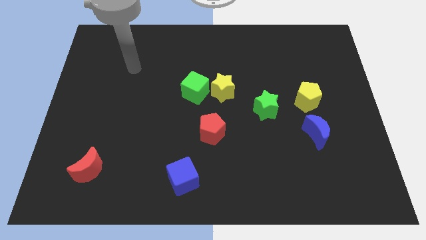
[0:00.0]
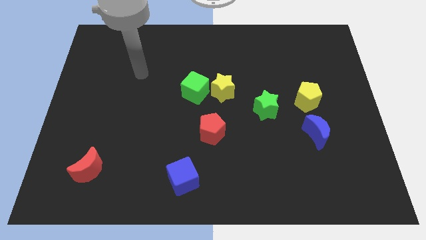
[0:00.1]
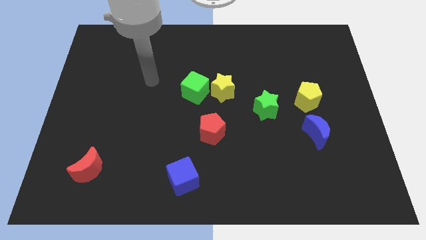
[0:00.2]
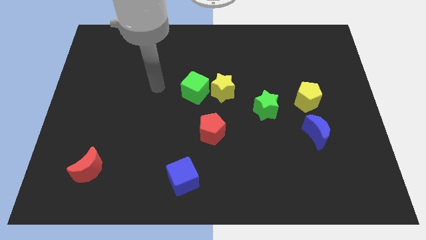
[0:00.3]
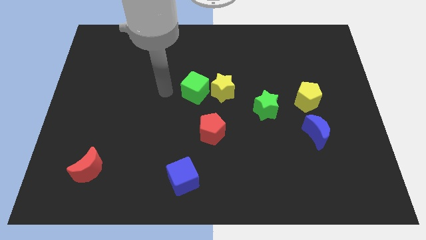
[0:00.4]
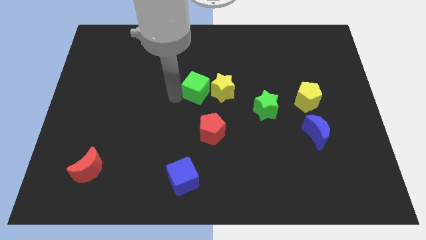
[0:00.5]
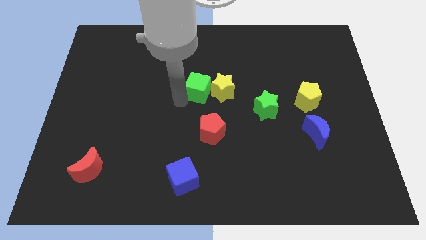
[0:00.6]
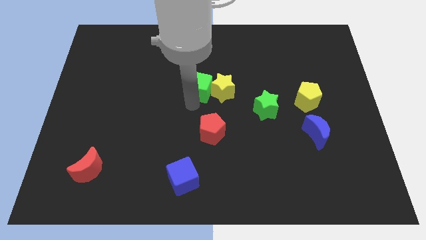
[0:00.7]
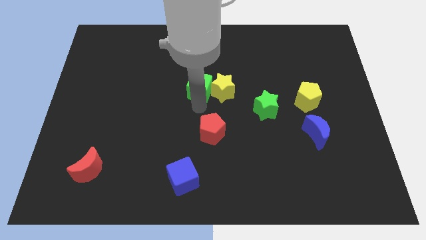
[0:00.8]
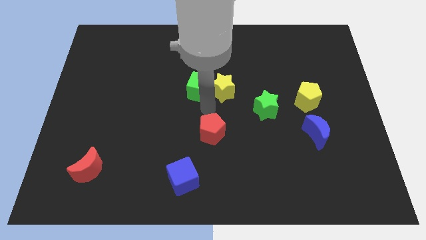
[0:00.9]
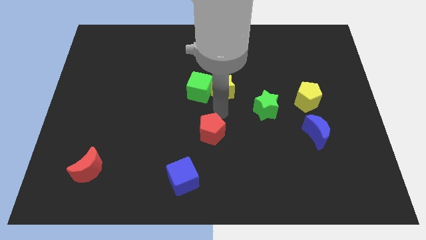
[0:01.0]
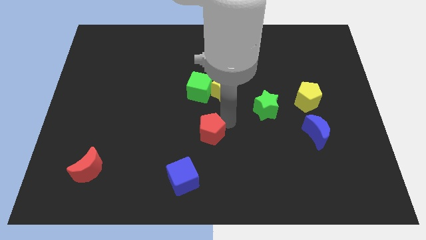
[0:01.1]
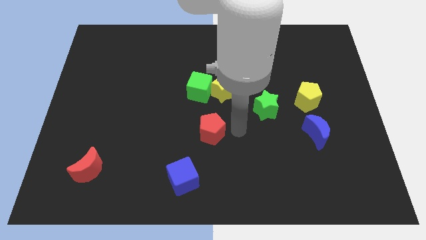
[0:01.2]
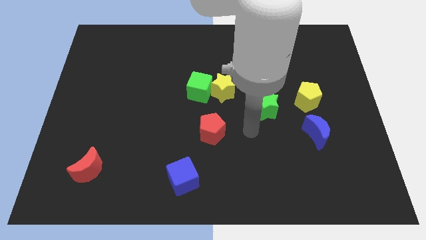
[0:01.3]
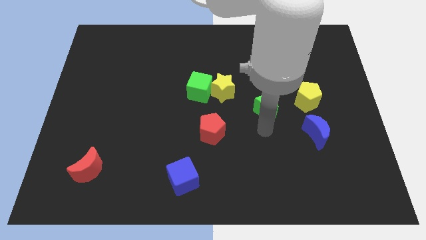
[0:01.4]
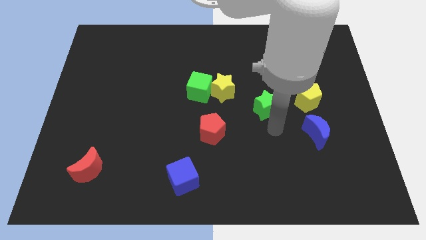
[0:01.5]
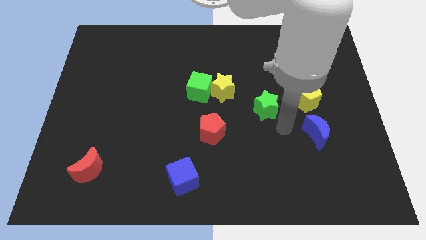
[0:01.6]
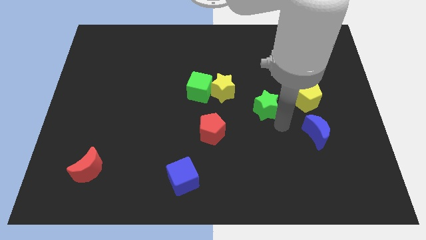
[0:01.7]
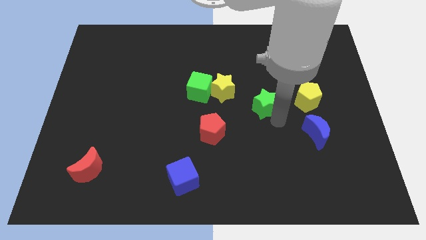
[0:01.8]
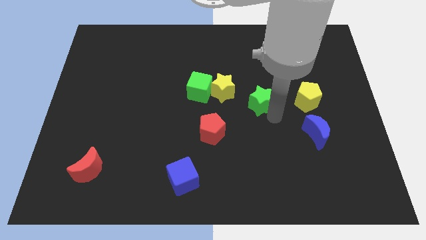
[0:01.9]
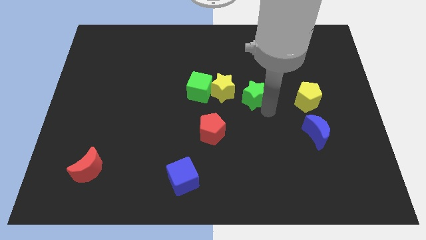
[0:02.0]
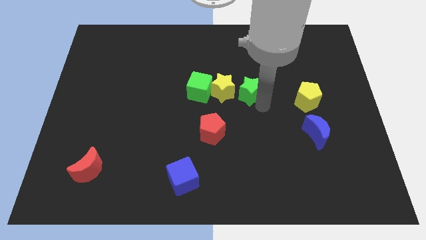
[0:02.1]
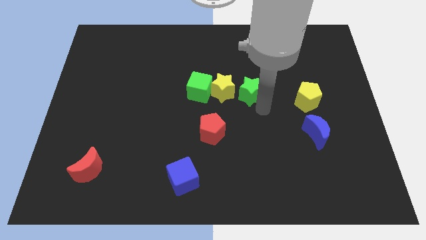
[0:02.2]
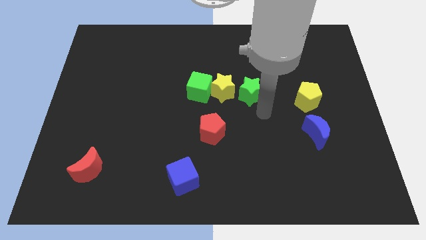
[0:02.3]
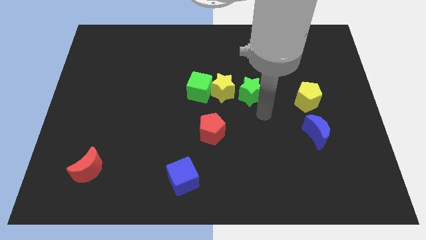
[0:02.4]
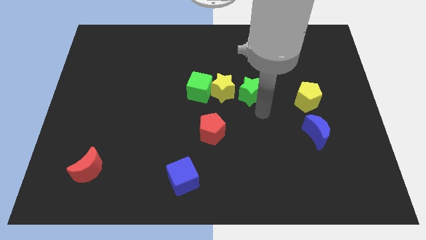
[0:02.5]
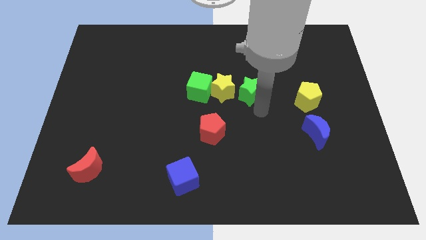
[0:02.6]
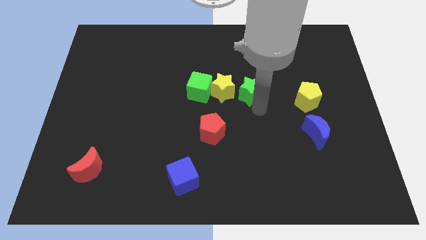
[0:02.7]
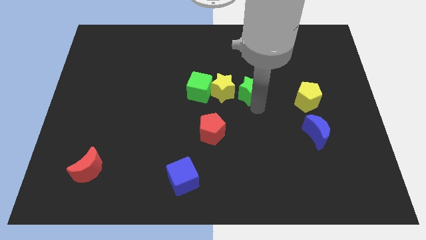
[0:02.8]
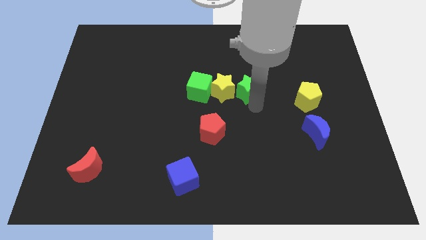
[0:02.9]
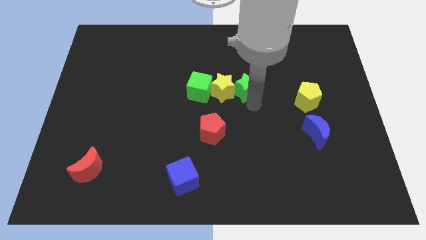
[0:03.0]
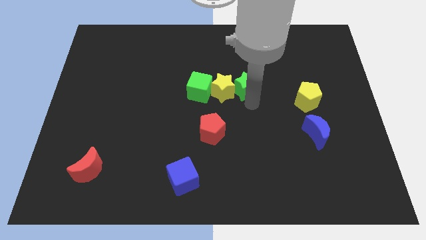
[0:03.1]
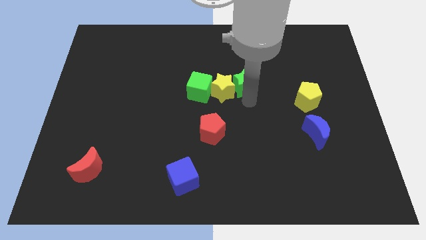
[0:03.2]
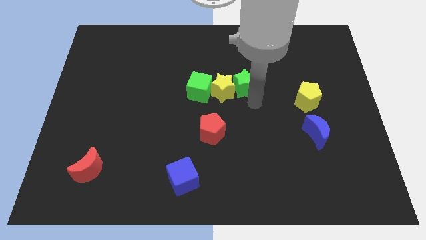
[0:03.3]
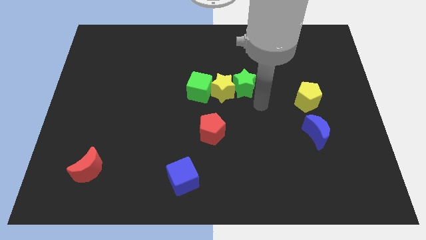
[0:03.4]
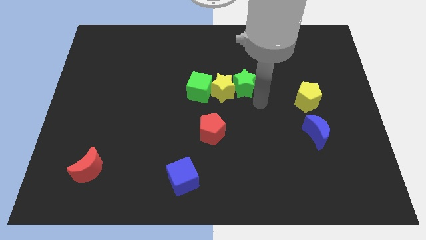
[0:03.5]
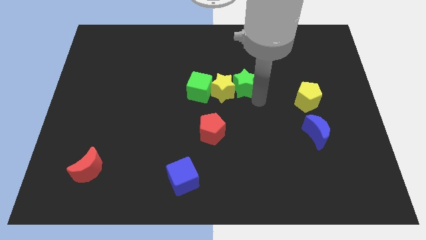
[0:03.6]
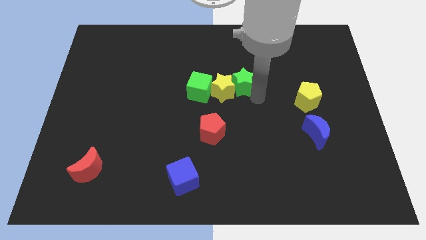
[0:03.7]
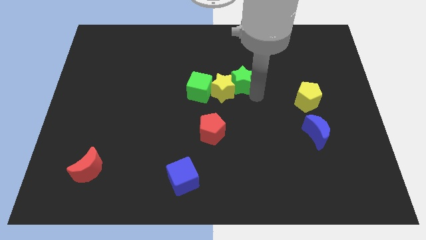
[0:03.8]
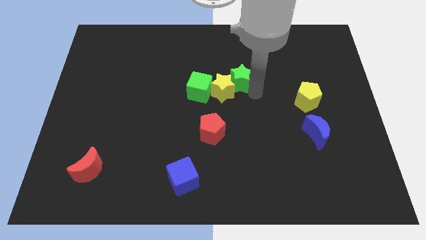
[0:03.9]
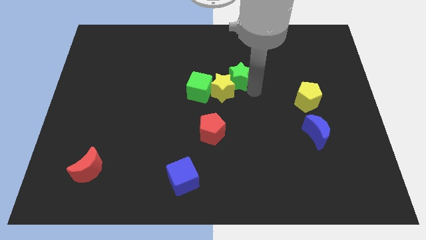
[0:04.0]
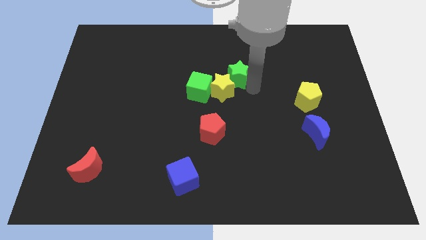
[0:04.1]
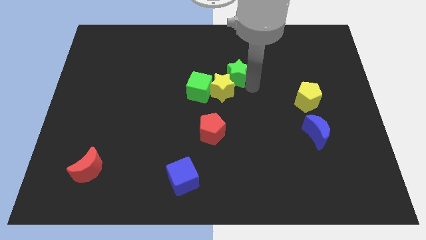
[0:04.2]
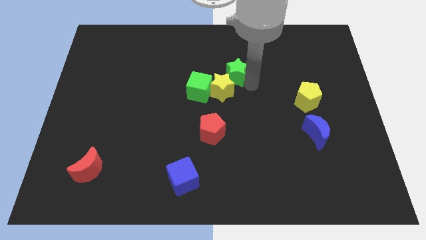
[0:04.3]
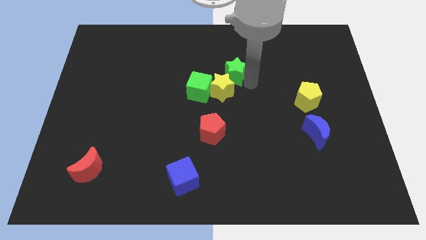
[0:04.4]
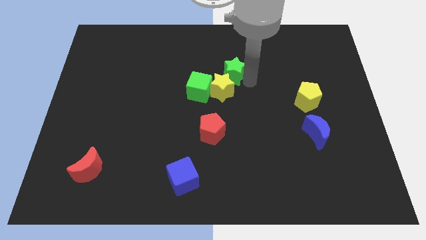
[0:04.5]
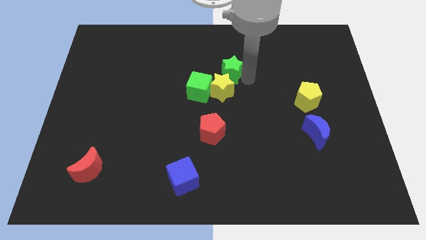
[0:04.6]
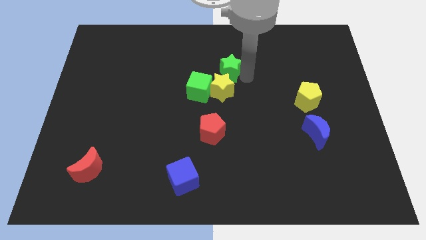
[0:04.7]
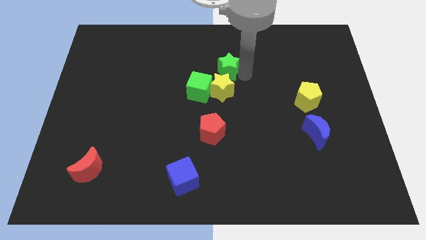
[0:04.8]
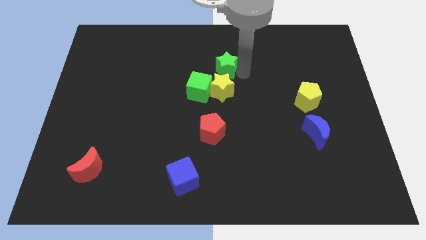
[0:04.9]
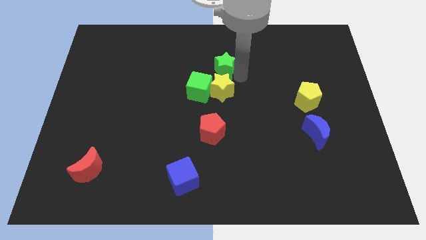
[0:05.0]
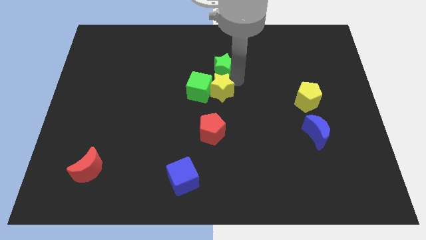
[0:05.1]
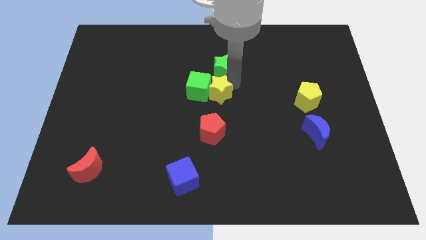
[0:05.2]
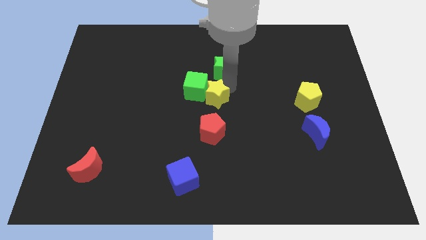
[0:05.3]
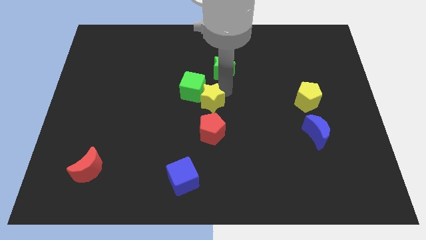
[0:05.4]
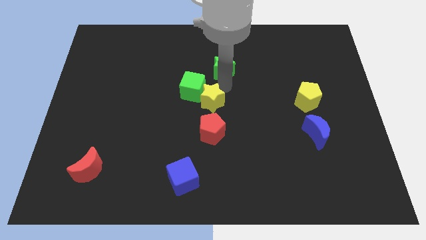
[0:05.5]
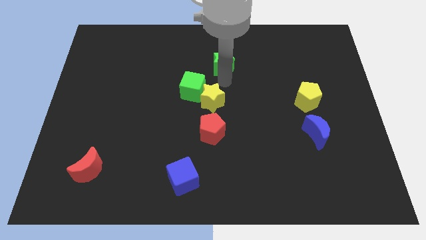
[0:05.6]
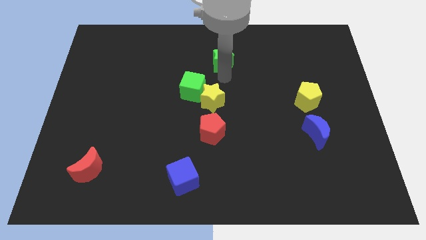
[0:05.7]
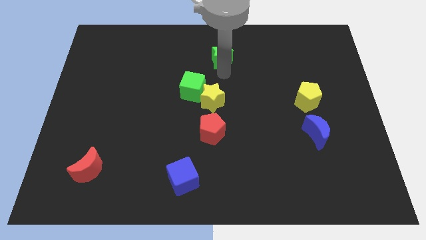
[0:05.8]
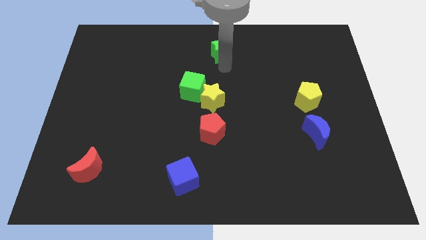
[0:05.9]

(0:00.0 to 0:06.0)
move the green star to the top side

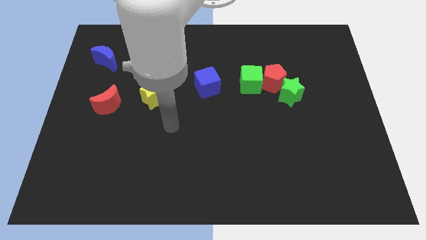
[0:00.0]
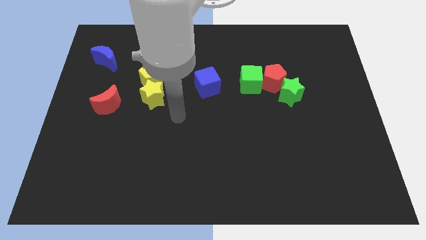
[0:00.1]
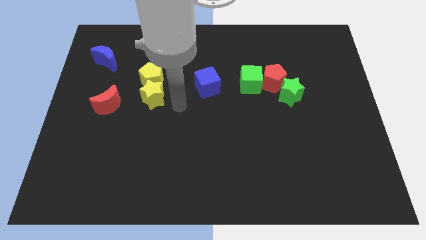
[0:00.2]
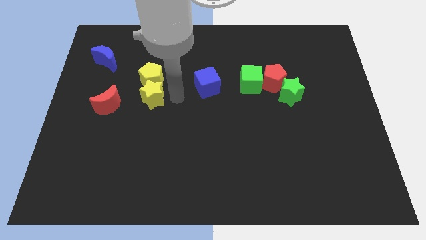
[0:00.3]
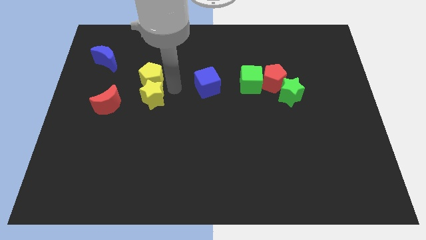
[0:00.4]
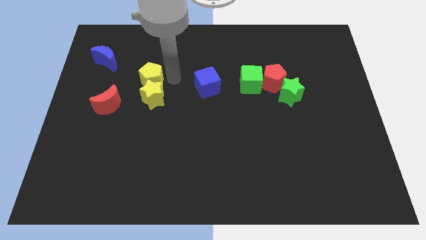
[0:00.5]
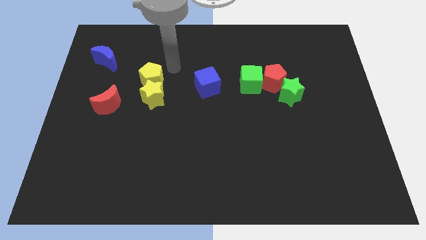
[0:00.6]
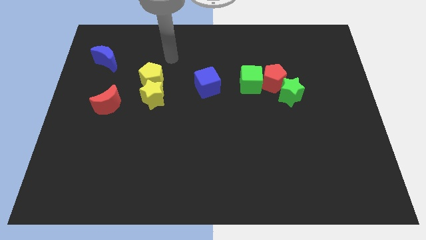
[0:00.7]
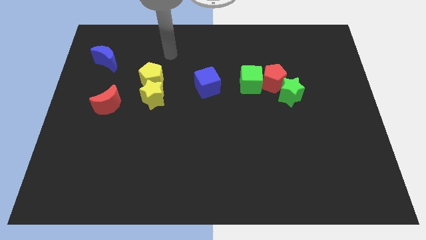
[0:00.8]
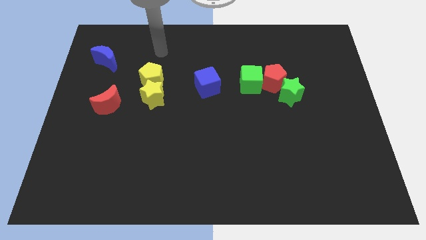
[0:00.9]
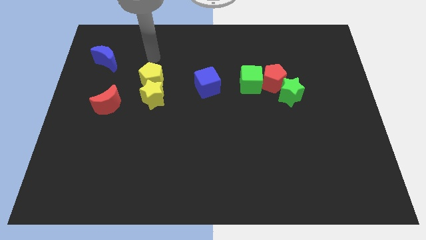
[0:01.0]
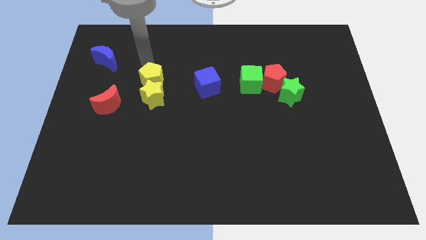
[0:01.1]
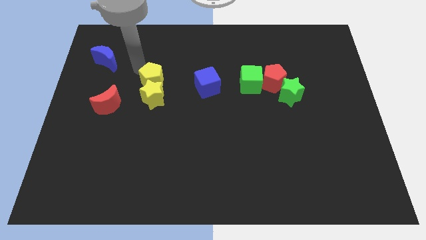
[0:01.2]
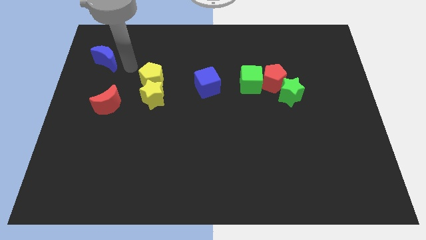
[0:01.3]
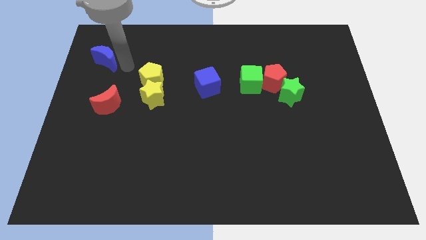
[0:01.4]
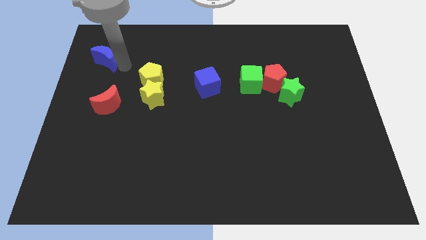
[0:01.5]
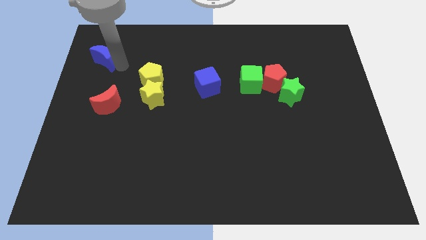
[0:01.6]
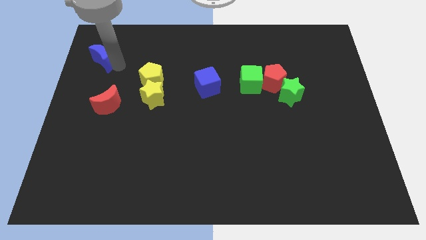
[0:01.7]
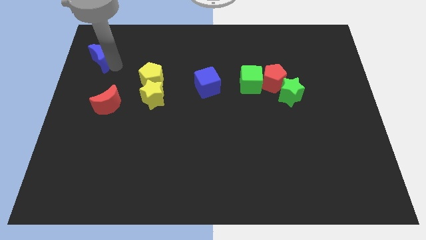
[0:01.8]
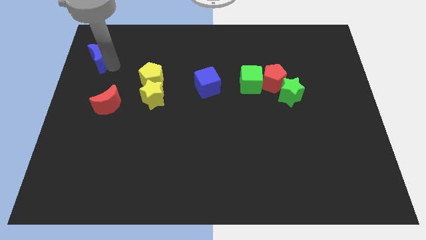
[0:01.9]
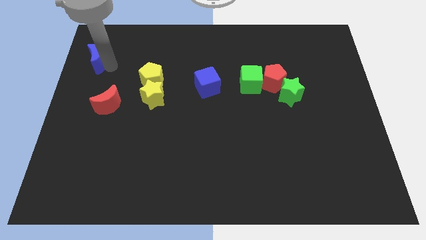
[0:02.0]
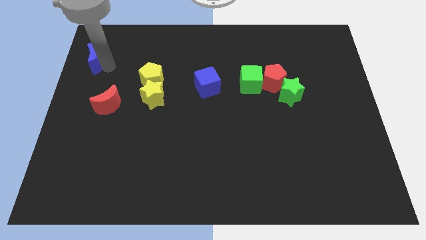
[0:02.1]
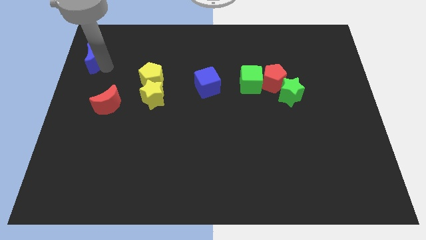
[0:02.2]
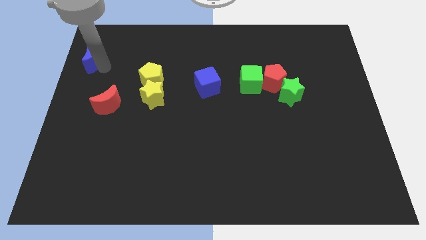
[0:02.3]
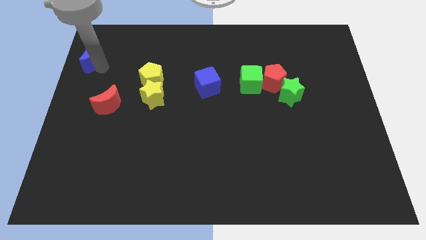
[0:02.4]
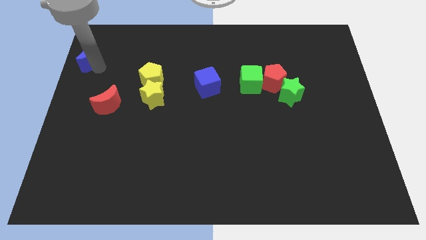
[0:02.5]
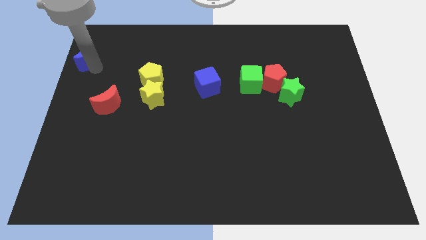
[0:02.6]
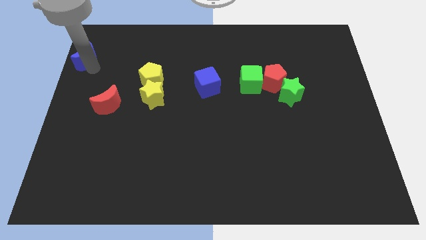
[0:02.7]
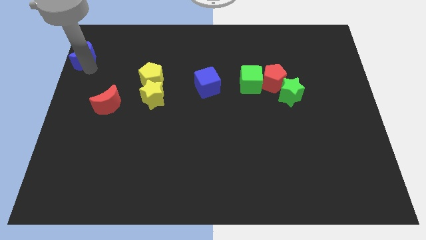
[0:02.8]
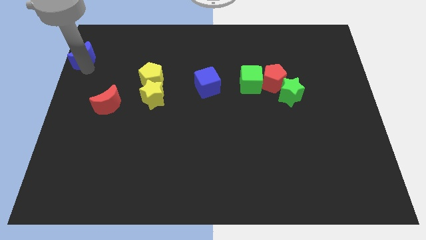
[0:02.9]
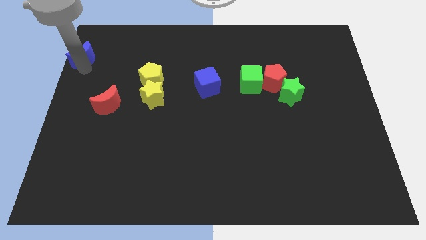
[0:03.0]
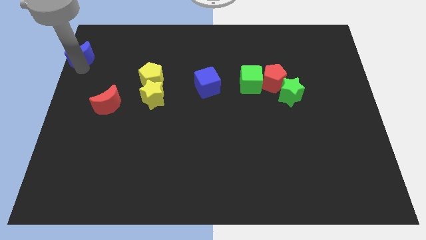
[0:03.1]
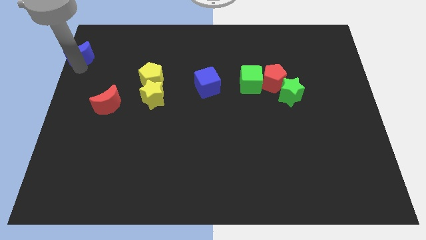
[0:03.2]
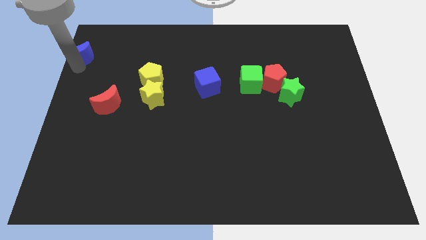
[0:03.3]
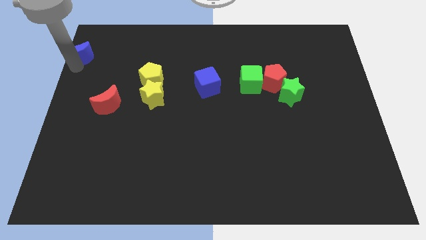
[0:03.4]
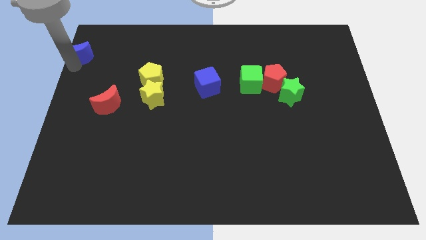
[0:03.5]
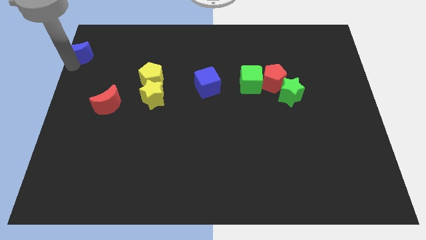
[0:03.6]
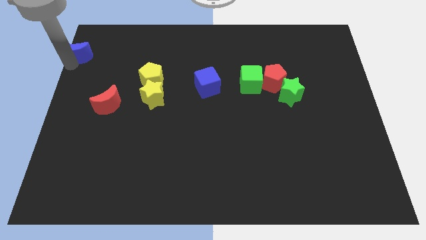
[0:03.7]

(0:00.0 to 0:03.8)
move the blue moon to the upper left corner
